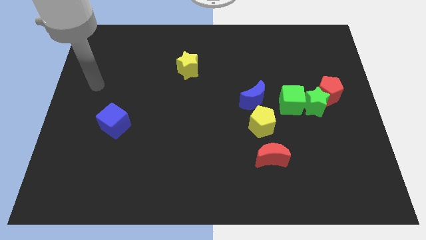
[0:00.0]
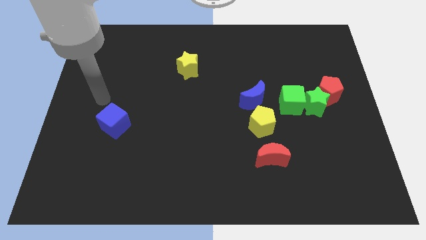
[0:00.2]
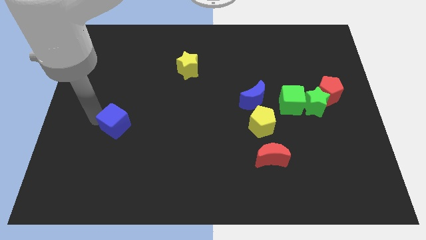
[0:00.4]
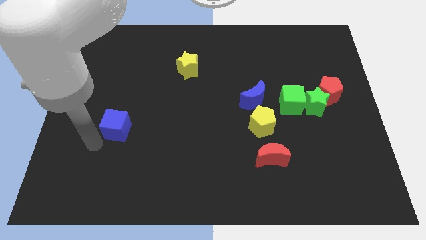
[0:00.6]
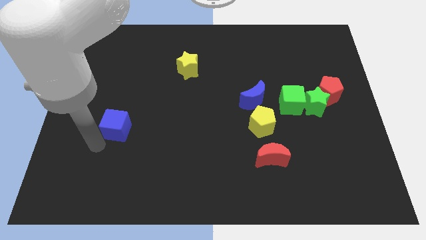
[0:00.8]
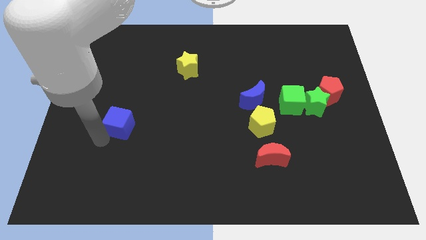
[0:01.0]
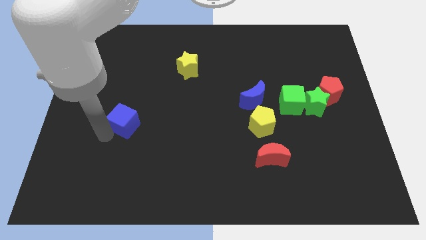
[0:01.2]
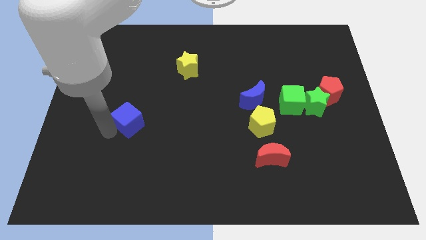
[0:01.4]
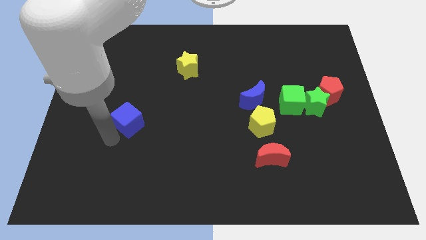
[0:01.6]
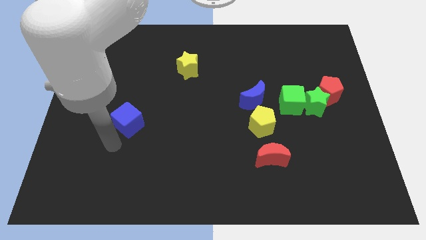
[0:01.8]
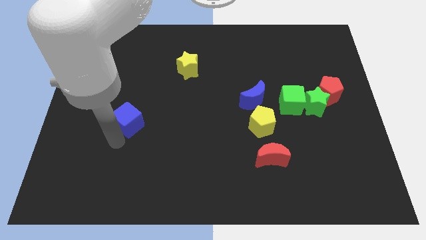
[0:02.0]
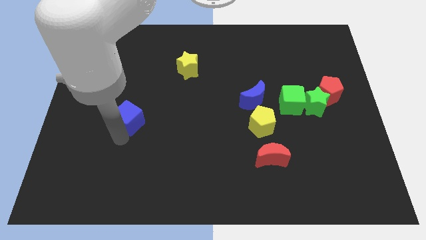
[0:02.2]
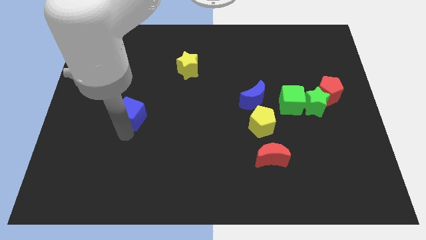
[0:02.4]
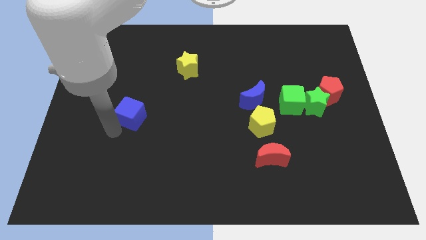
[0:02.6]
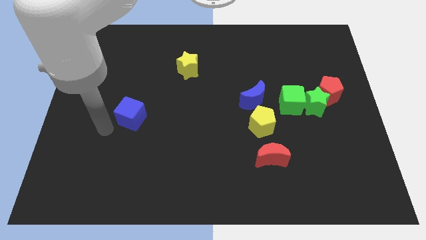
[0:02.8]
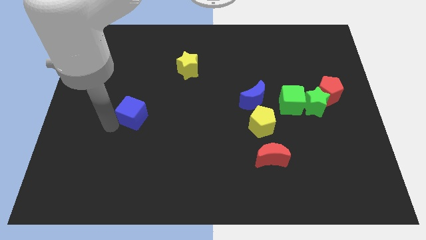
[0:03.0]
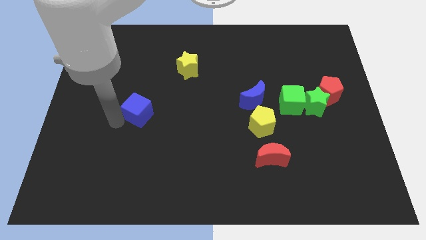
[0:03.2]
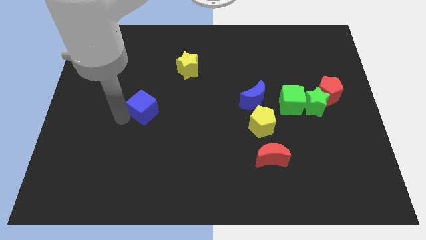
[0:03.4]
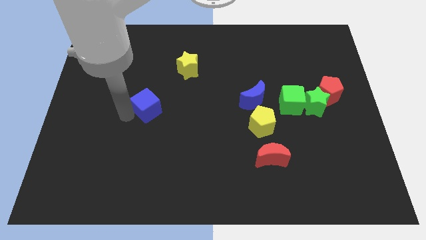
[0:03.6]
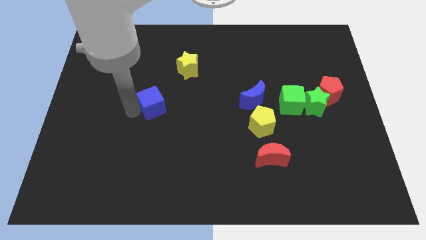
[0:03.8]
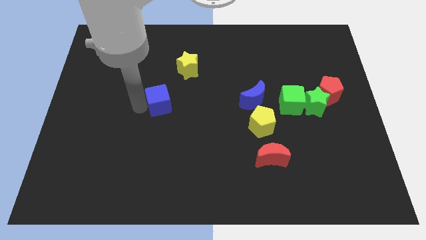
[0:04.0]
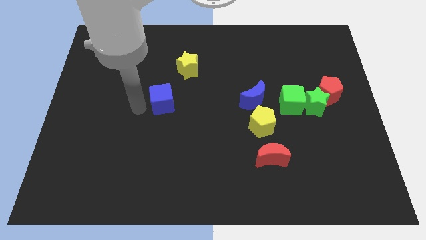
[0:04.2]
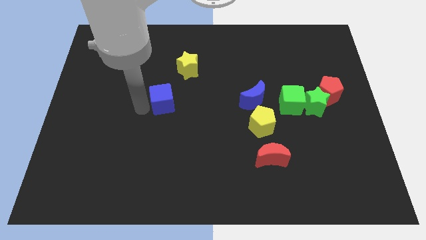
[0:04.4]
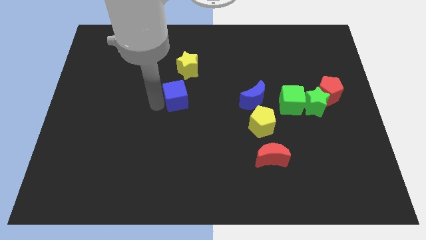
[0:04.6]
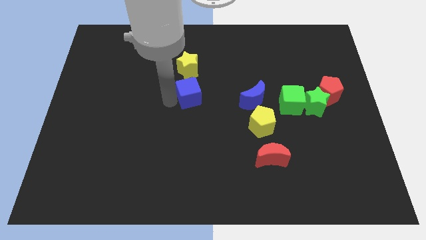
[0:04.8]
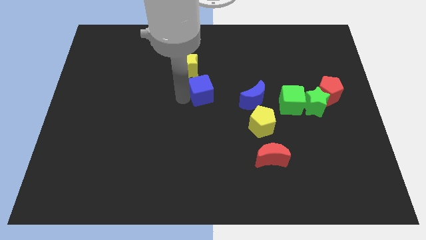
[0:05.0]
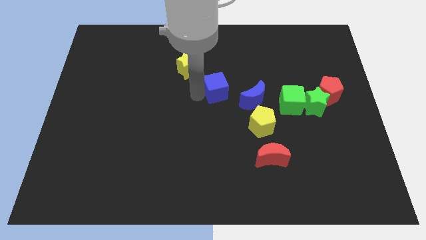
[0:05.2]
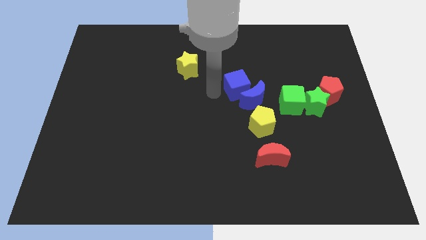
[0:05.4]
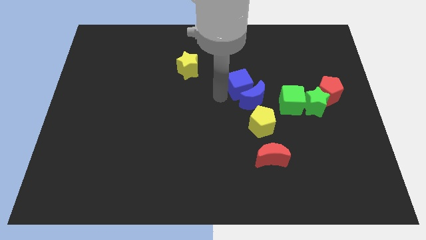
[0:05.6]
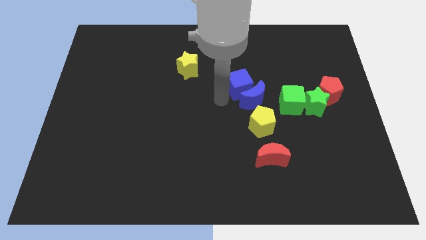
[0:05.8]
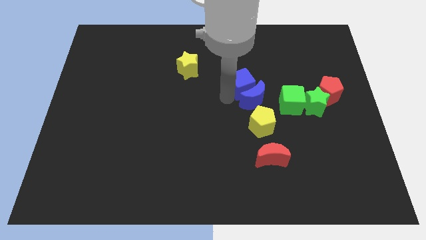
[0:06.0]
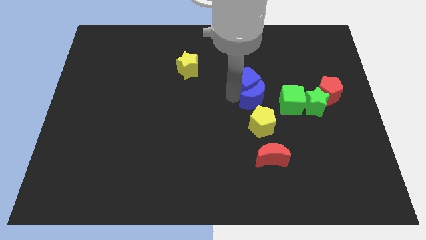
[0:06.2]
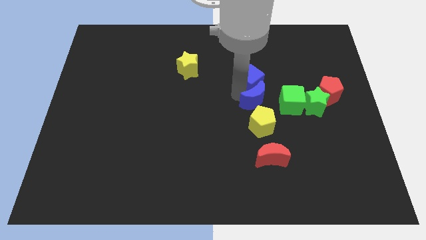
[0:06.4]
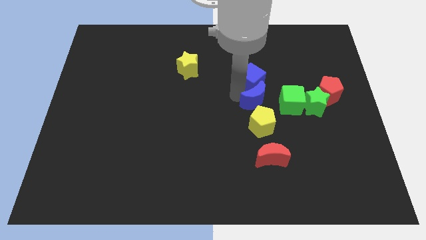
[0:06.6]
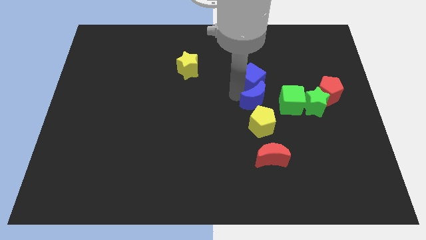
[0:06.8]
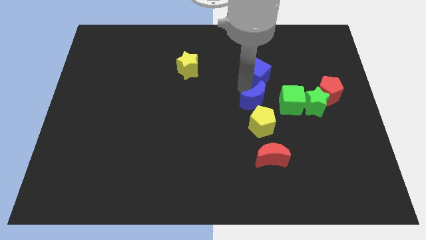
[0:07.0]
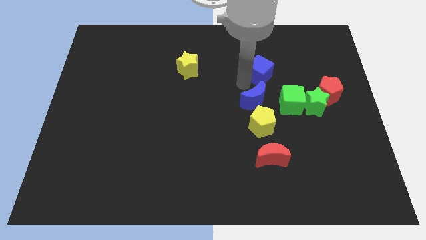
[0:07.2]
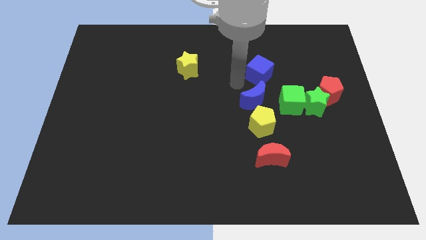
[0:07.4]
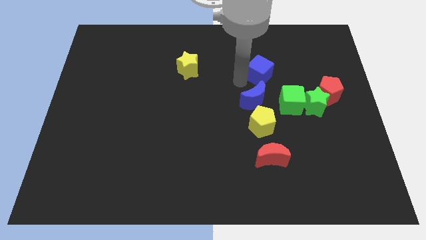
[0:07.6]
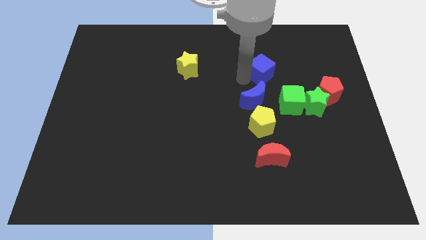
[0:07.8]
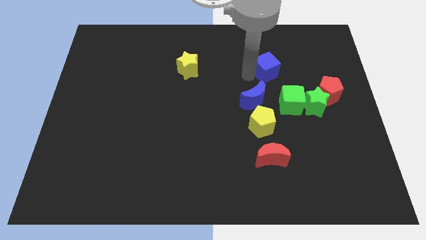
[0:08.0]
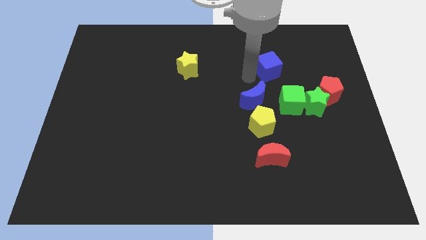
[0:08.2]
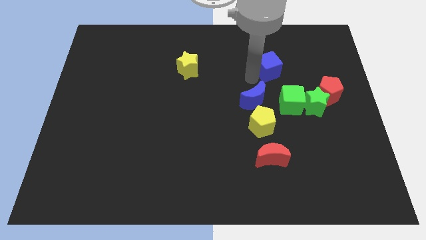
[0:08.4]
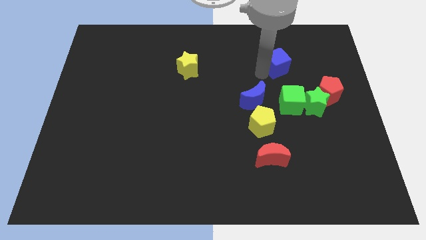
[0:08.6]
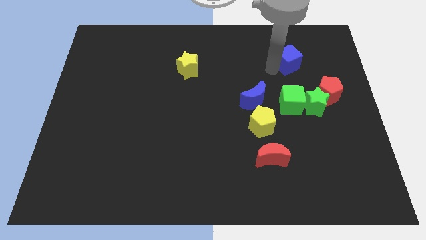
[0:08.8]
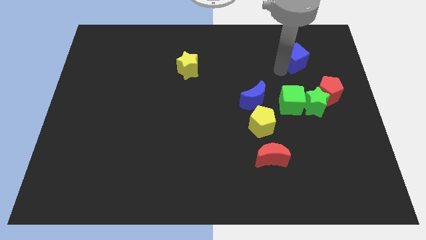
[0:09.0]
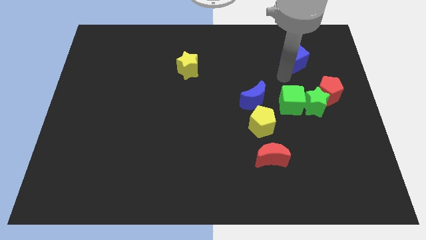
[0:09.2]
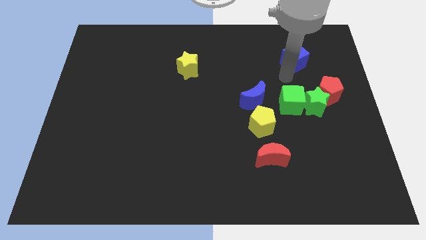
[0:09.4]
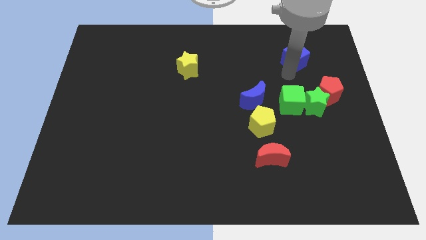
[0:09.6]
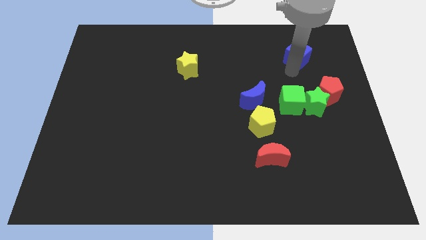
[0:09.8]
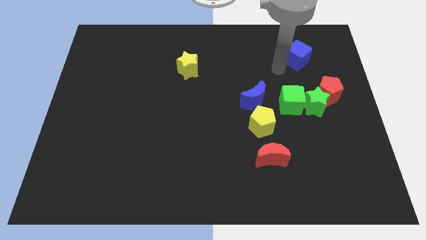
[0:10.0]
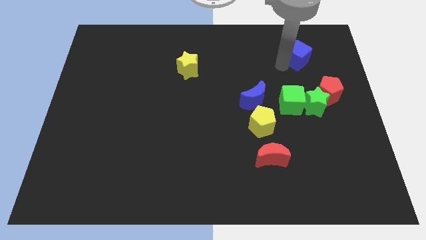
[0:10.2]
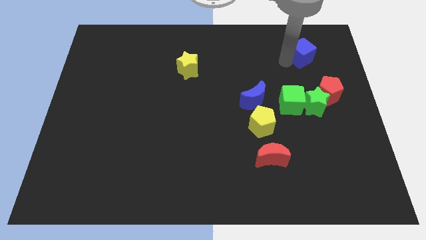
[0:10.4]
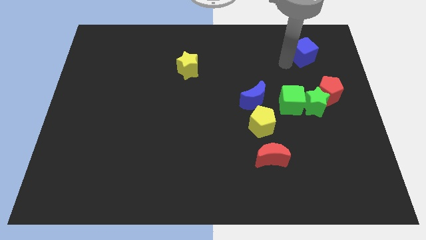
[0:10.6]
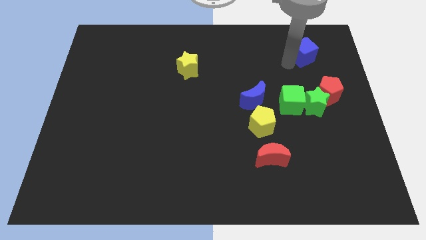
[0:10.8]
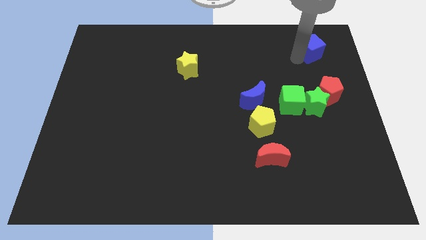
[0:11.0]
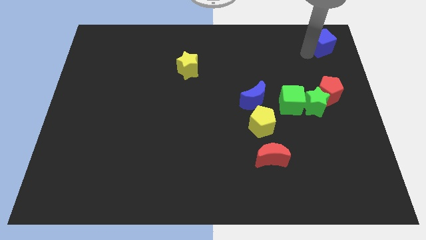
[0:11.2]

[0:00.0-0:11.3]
push the blue cube to the upper right corner
